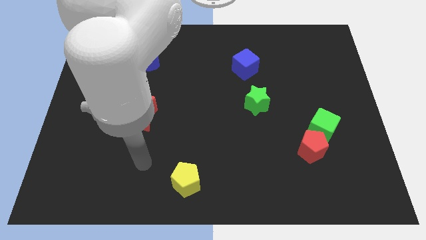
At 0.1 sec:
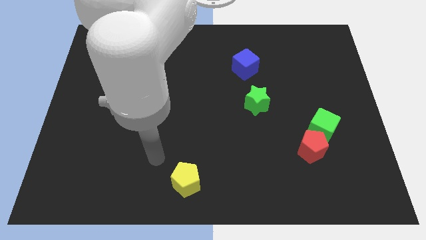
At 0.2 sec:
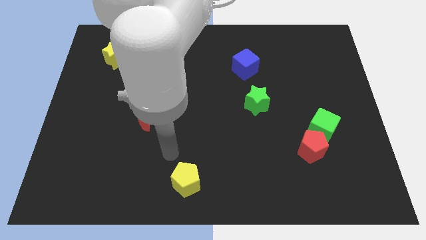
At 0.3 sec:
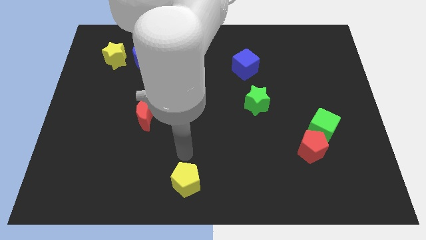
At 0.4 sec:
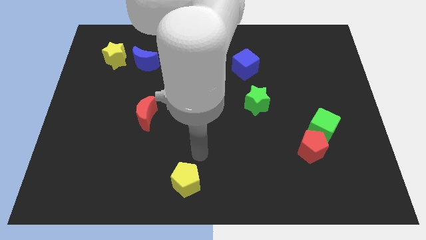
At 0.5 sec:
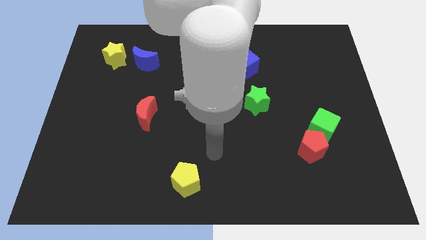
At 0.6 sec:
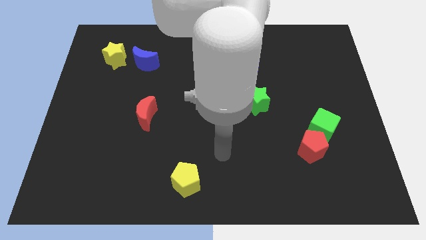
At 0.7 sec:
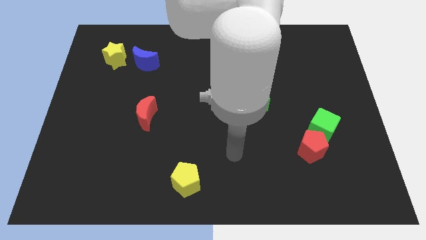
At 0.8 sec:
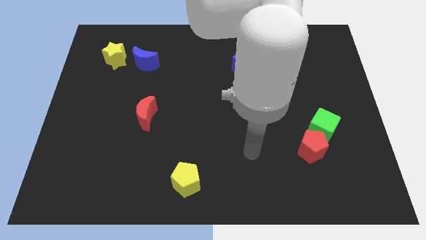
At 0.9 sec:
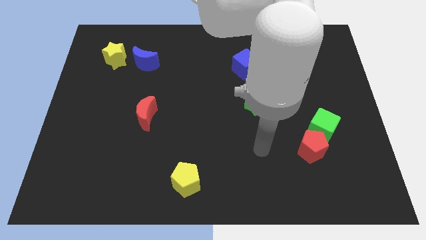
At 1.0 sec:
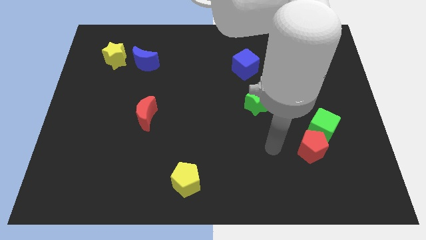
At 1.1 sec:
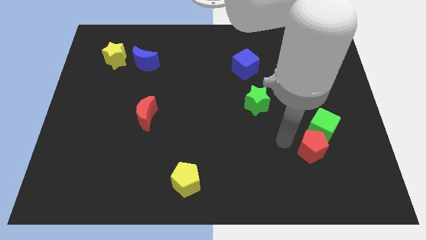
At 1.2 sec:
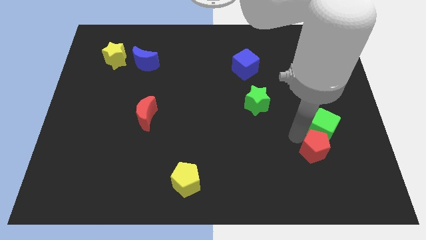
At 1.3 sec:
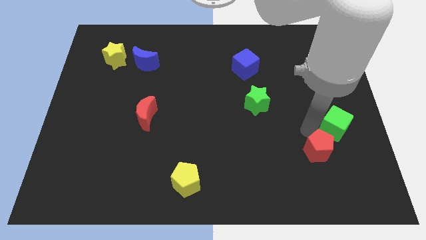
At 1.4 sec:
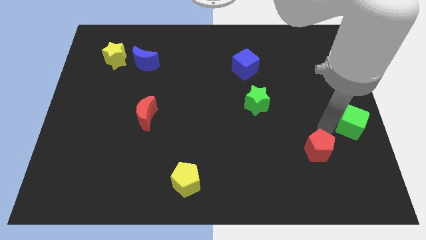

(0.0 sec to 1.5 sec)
pull the red pentagon apart from the green cube

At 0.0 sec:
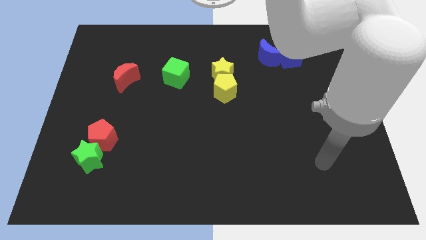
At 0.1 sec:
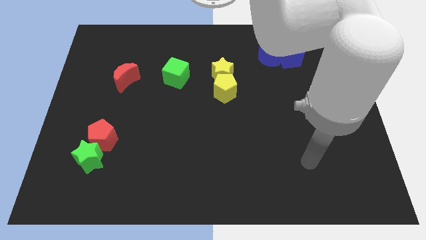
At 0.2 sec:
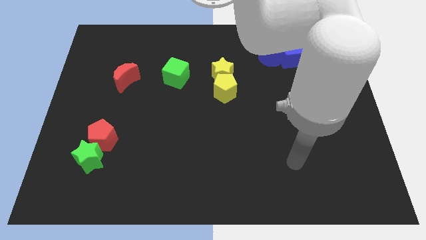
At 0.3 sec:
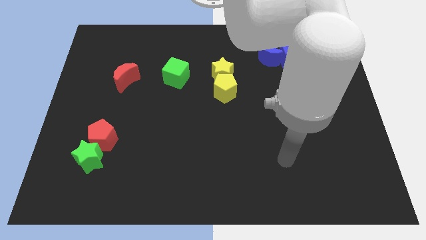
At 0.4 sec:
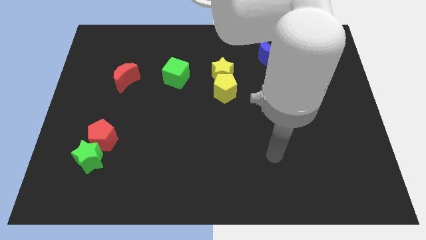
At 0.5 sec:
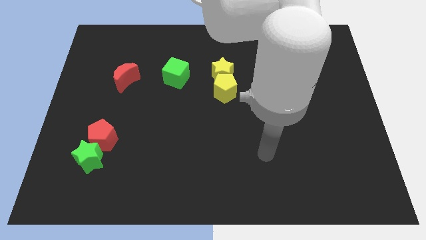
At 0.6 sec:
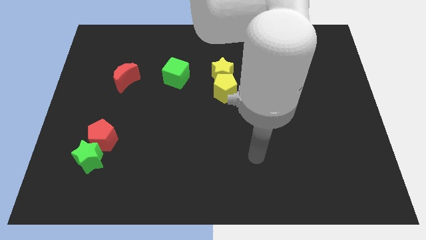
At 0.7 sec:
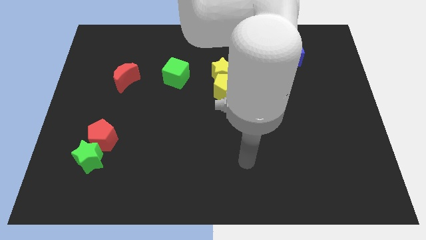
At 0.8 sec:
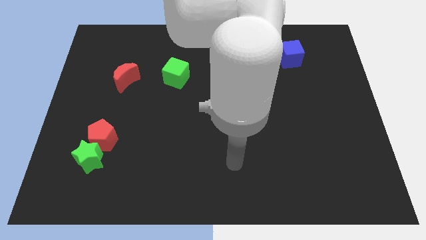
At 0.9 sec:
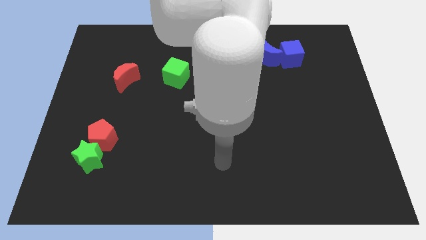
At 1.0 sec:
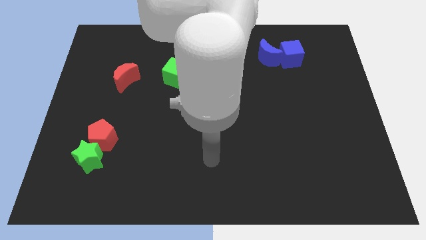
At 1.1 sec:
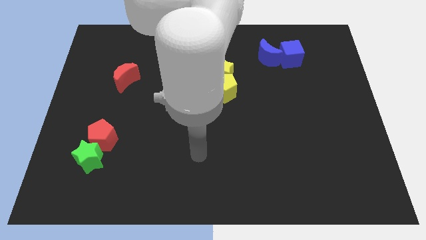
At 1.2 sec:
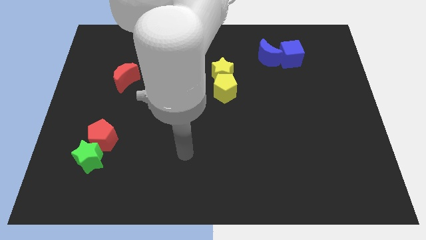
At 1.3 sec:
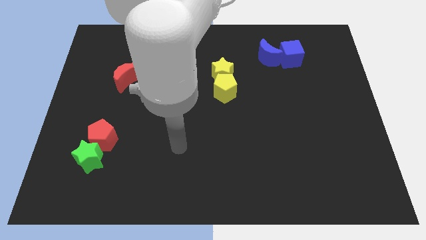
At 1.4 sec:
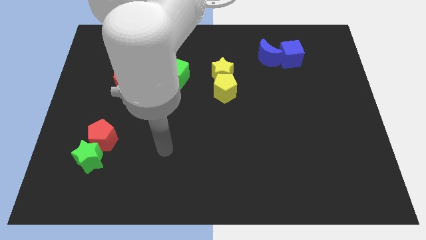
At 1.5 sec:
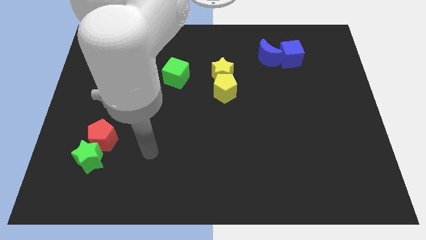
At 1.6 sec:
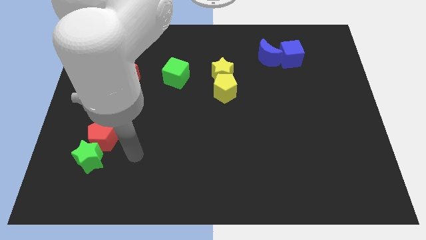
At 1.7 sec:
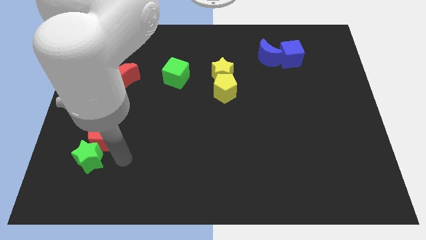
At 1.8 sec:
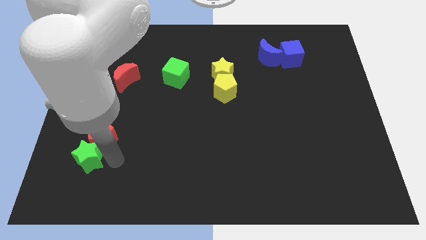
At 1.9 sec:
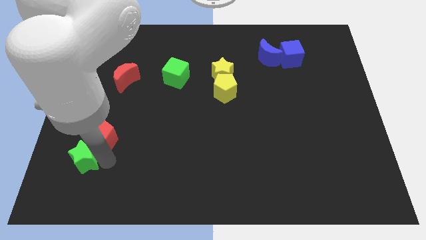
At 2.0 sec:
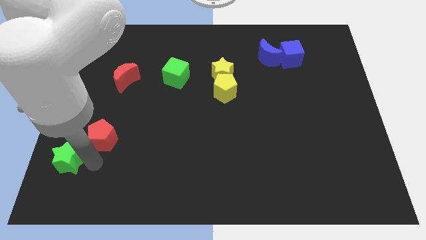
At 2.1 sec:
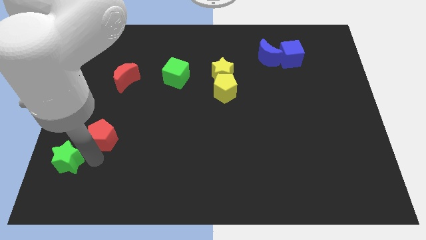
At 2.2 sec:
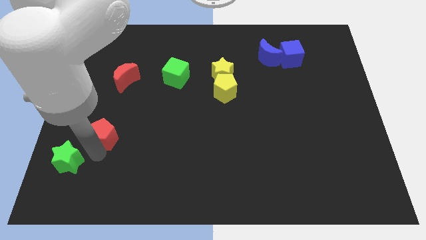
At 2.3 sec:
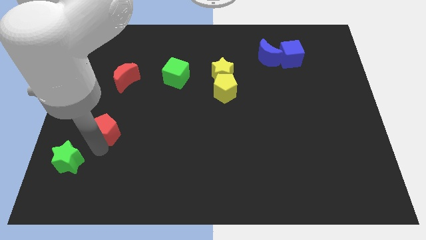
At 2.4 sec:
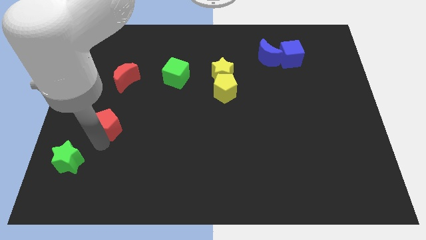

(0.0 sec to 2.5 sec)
pull the red pentagon apart from the green star

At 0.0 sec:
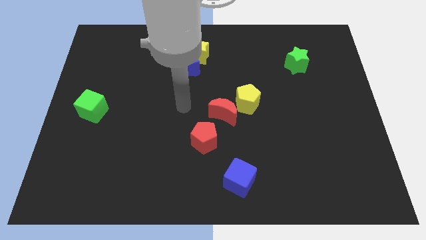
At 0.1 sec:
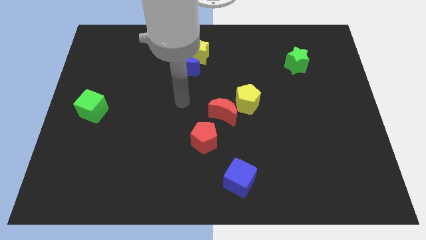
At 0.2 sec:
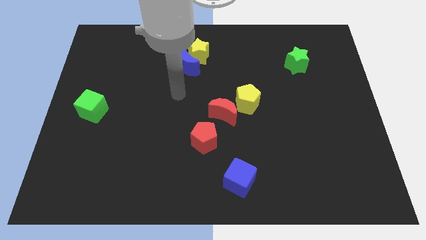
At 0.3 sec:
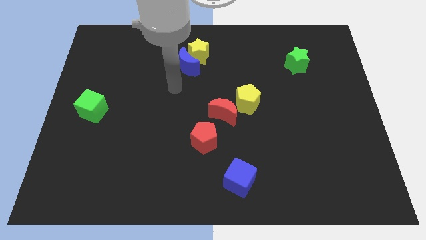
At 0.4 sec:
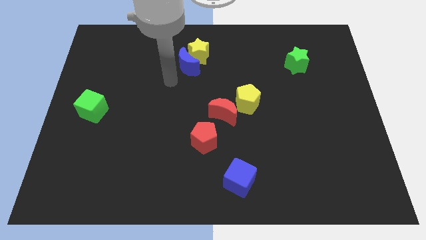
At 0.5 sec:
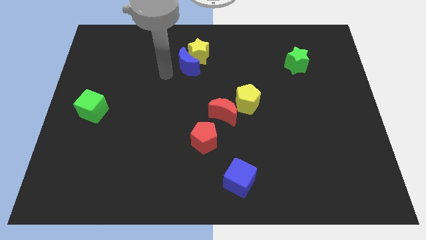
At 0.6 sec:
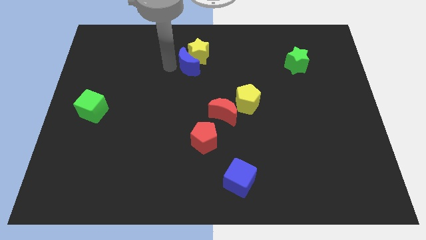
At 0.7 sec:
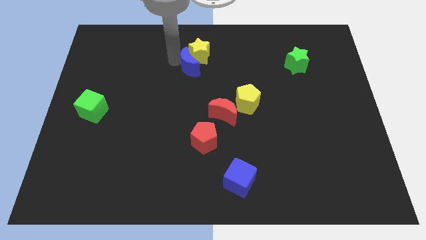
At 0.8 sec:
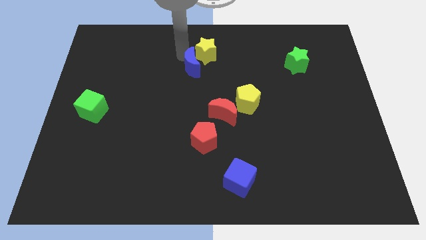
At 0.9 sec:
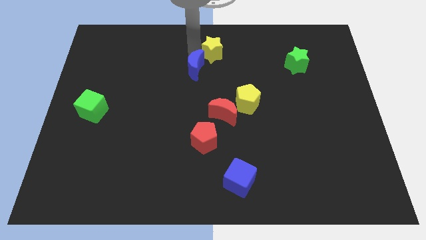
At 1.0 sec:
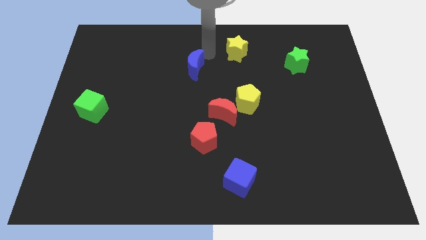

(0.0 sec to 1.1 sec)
separate the blue moon from the yellow star

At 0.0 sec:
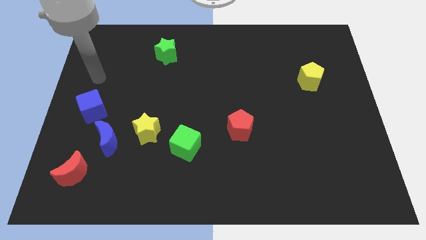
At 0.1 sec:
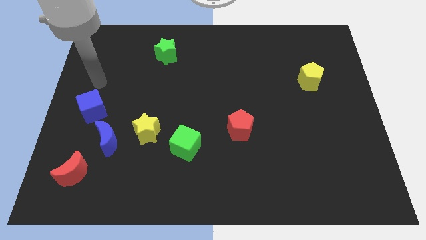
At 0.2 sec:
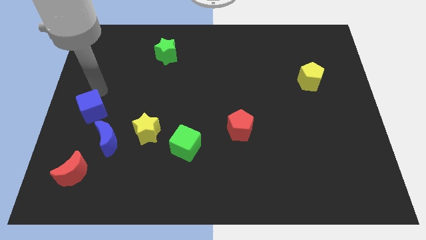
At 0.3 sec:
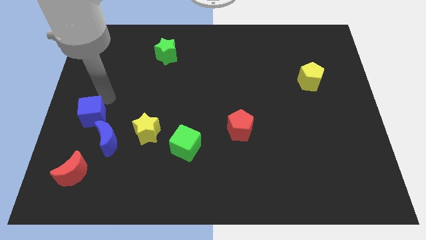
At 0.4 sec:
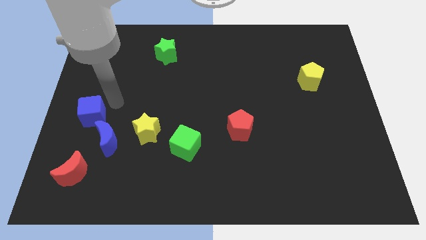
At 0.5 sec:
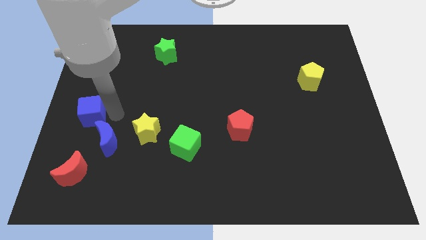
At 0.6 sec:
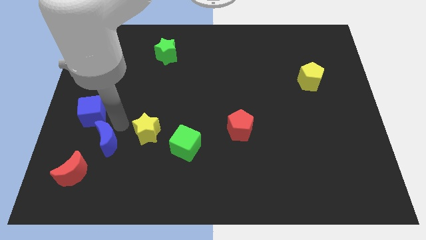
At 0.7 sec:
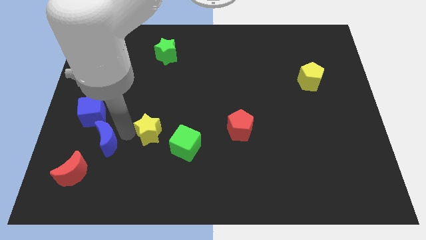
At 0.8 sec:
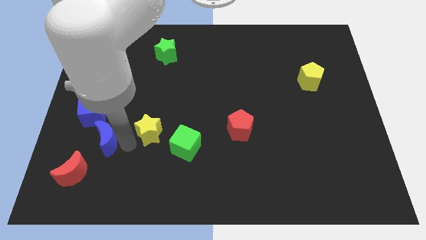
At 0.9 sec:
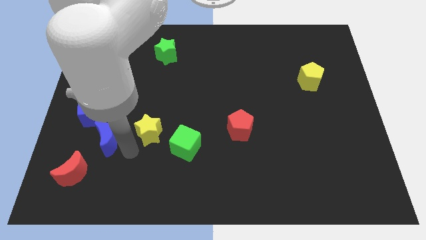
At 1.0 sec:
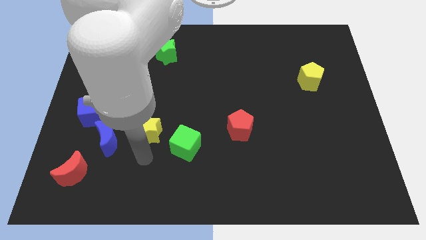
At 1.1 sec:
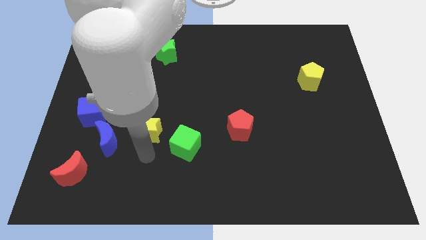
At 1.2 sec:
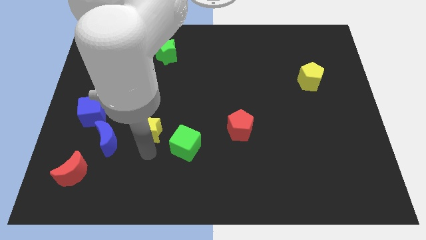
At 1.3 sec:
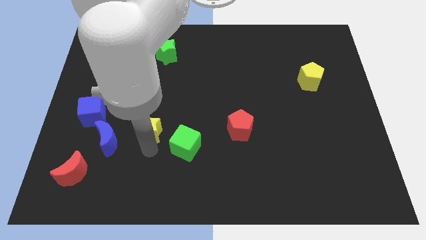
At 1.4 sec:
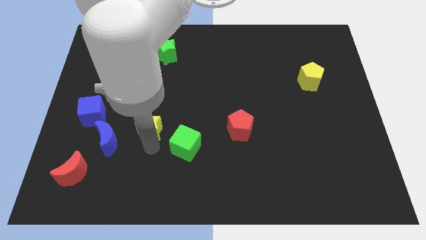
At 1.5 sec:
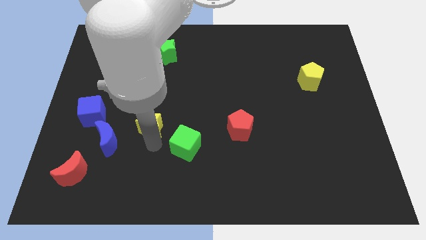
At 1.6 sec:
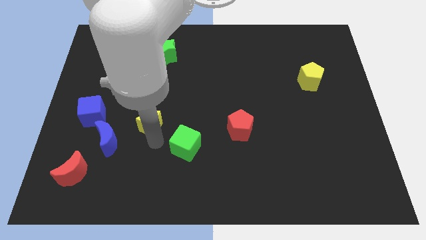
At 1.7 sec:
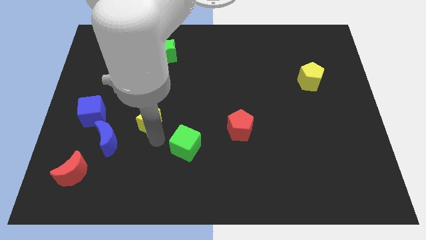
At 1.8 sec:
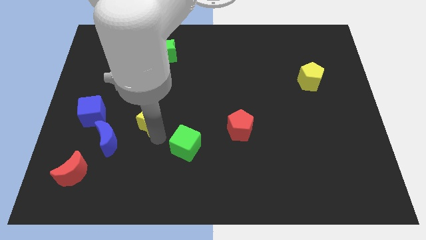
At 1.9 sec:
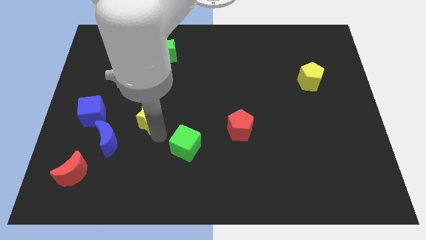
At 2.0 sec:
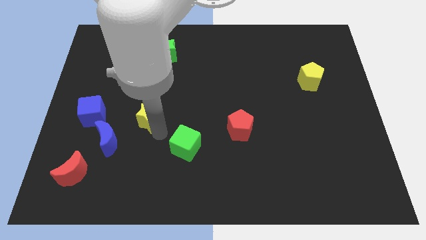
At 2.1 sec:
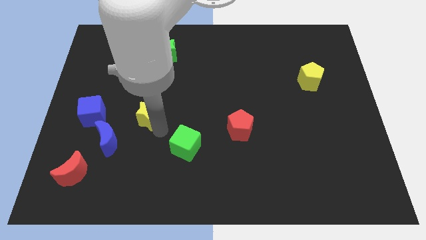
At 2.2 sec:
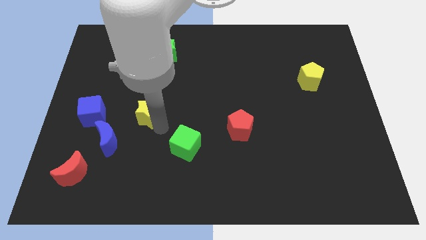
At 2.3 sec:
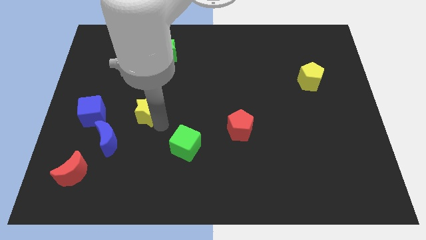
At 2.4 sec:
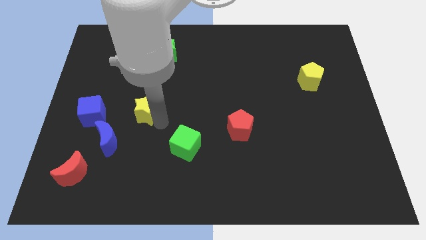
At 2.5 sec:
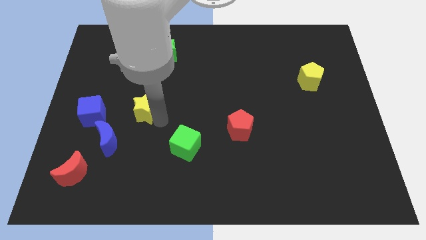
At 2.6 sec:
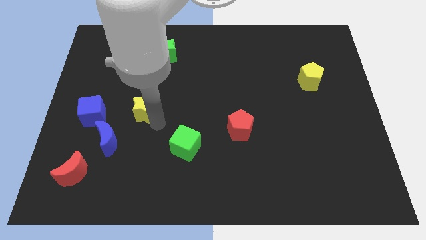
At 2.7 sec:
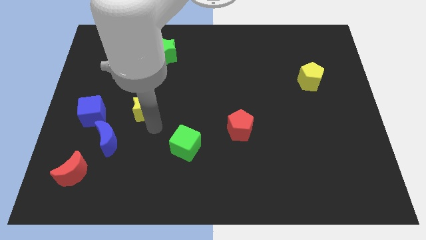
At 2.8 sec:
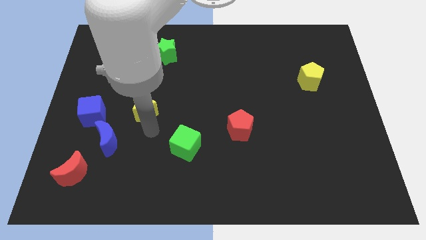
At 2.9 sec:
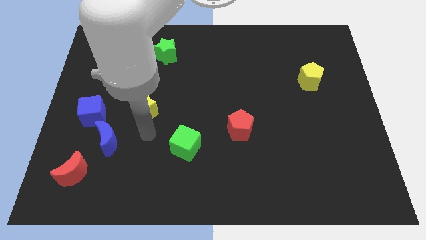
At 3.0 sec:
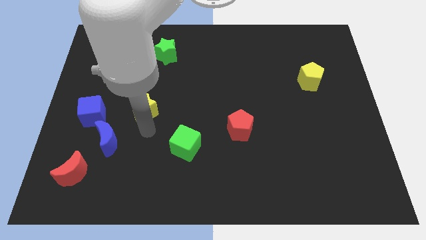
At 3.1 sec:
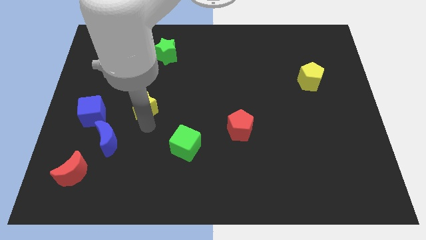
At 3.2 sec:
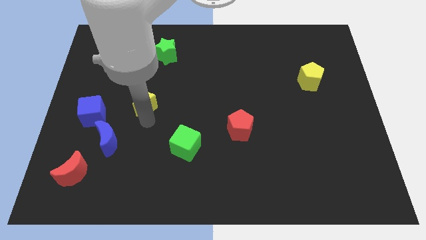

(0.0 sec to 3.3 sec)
separate the yellow star from the blue moon and green cube

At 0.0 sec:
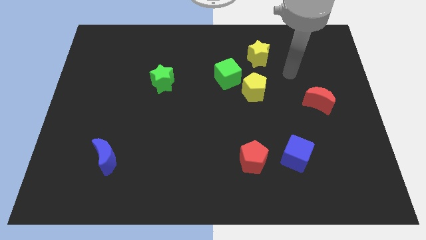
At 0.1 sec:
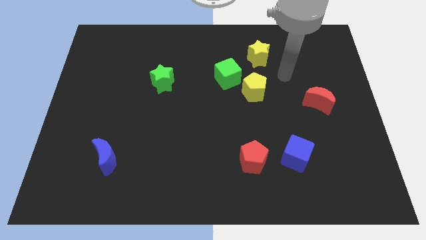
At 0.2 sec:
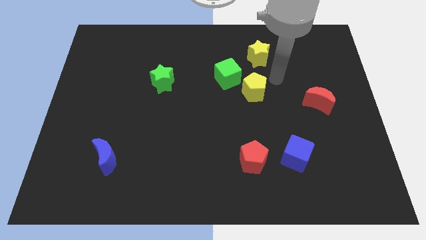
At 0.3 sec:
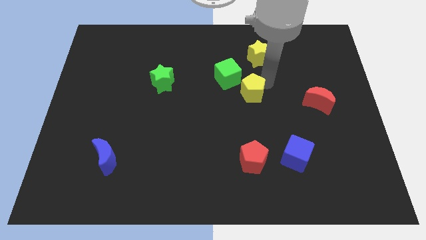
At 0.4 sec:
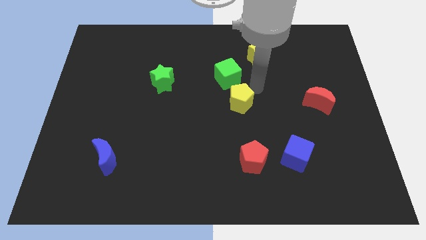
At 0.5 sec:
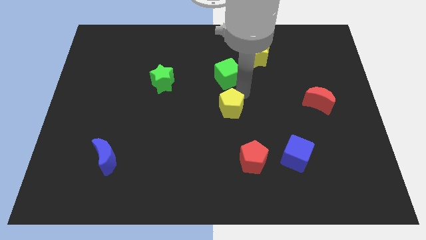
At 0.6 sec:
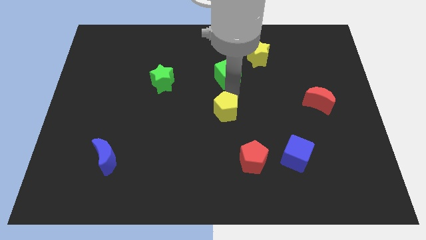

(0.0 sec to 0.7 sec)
move the green cube away from the yellow pentagon

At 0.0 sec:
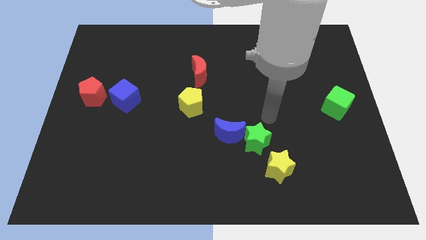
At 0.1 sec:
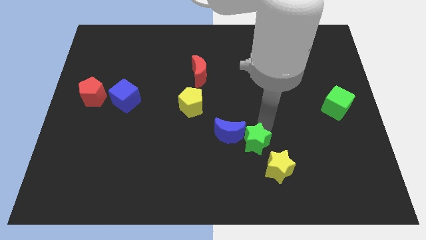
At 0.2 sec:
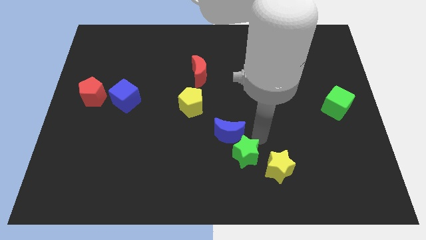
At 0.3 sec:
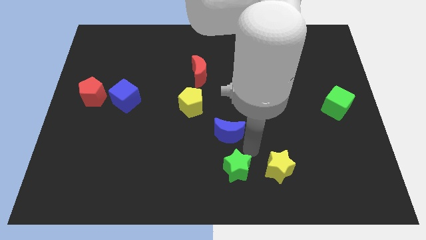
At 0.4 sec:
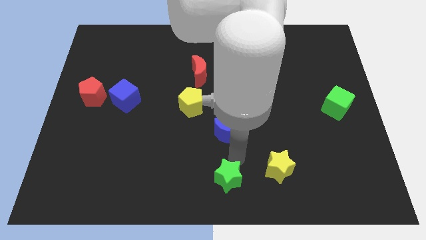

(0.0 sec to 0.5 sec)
separate the blue moon from the green star
